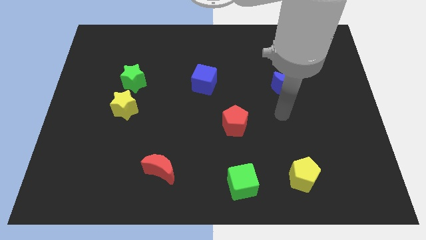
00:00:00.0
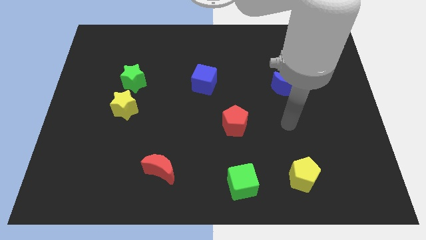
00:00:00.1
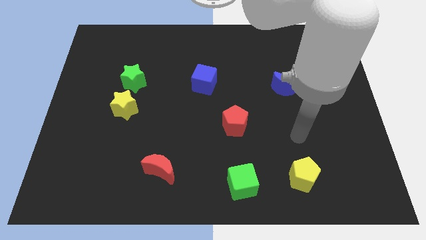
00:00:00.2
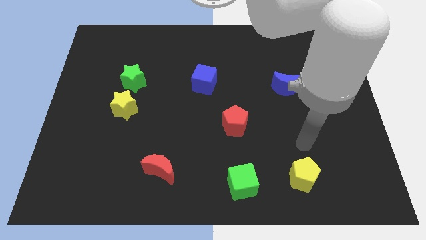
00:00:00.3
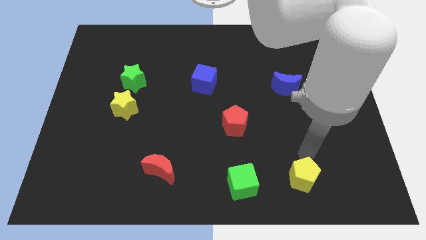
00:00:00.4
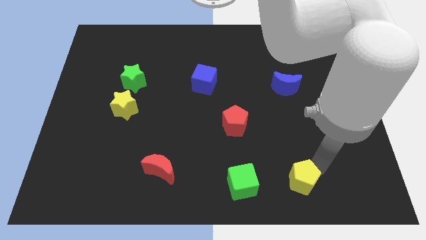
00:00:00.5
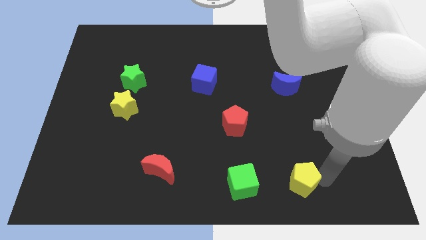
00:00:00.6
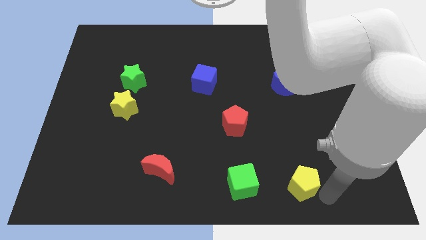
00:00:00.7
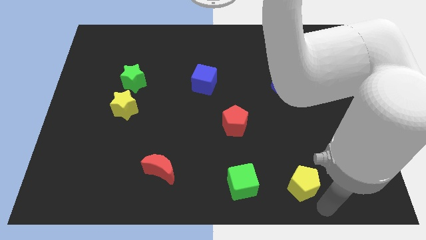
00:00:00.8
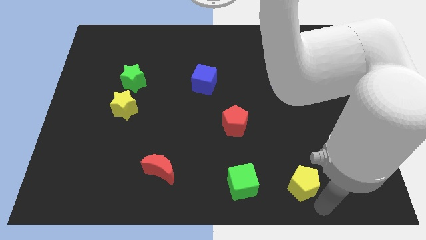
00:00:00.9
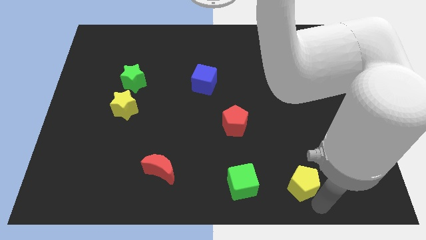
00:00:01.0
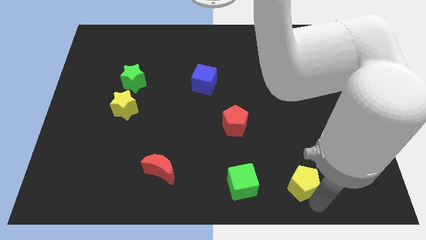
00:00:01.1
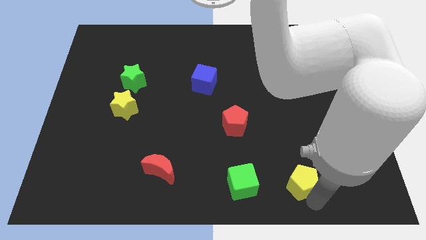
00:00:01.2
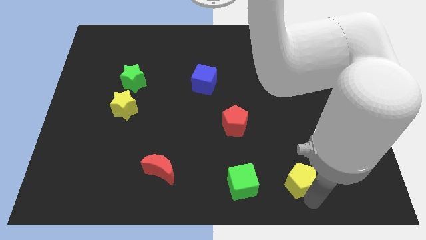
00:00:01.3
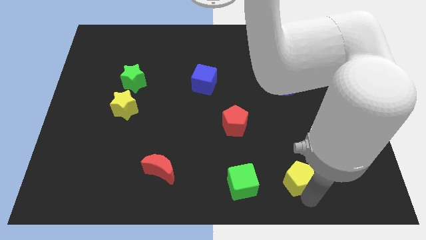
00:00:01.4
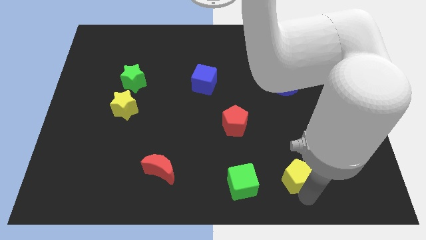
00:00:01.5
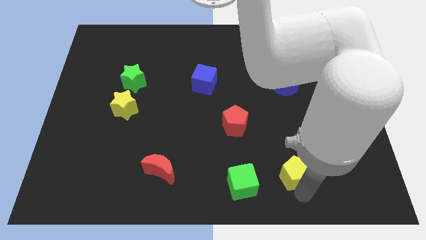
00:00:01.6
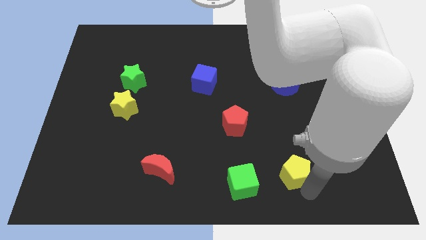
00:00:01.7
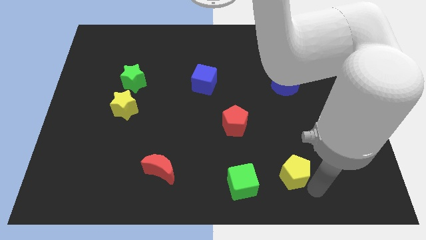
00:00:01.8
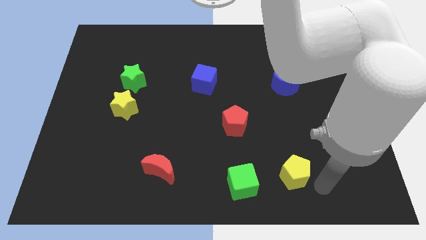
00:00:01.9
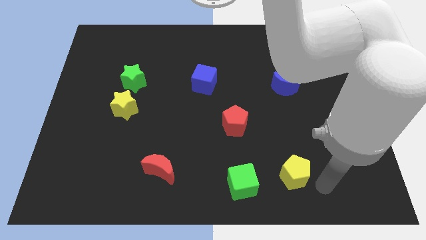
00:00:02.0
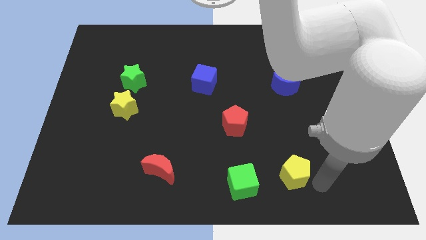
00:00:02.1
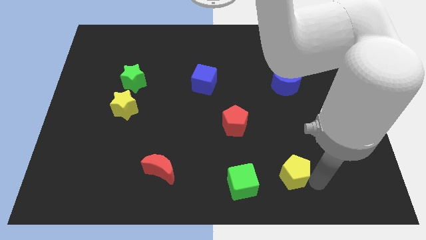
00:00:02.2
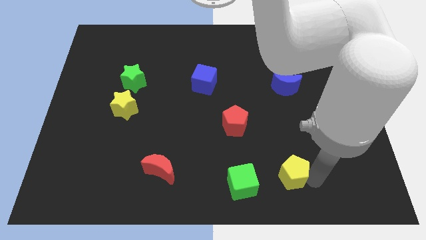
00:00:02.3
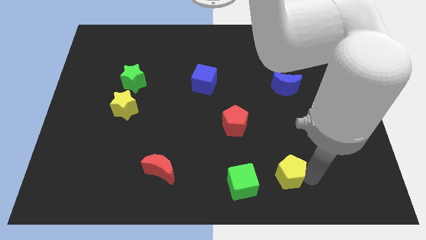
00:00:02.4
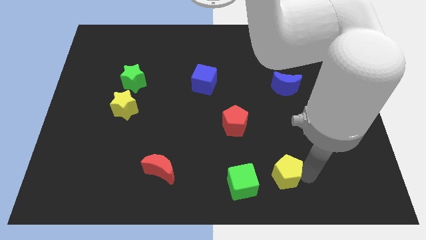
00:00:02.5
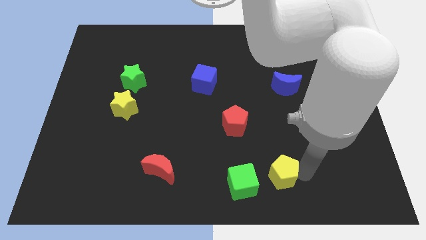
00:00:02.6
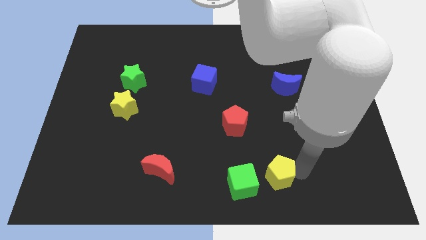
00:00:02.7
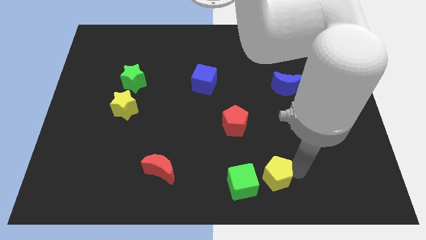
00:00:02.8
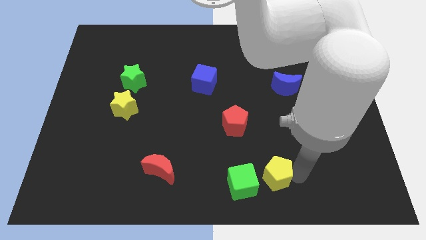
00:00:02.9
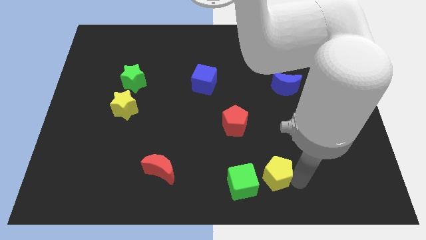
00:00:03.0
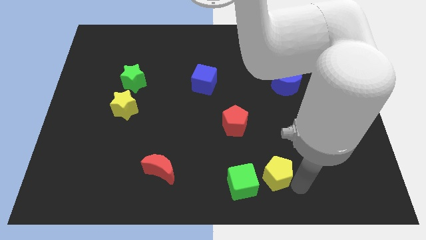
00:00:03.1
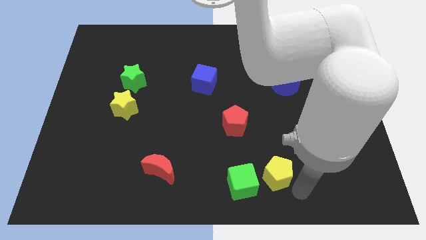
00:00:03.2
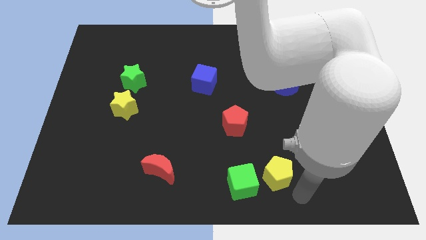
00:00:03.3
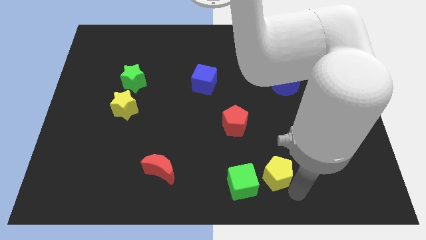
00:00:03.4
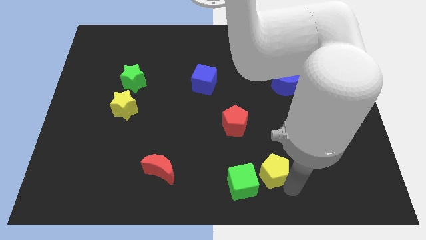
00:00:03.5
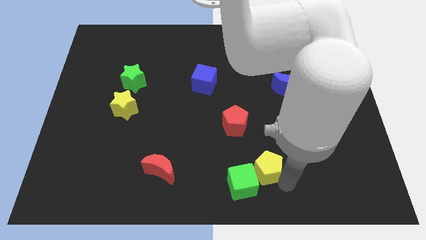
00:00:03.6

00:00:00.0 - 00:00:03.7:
push the yellow pentagon left a little

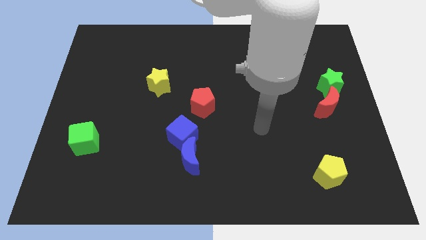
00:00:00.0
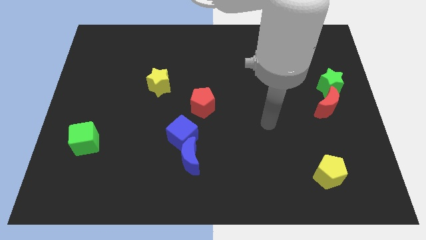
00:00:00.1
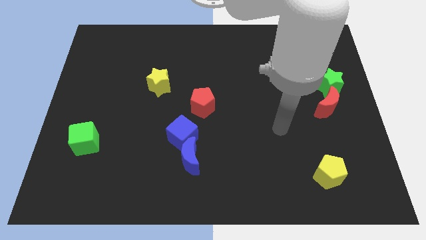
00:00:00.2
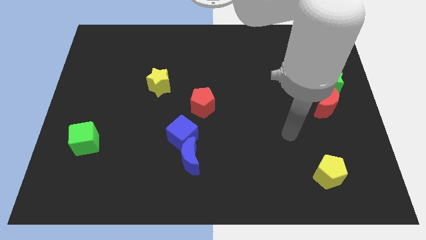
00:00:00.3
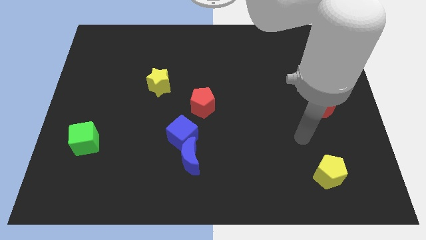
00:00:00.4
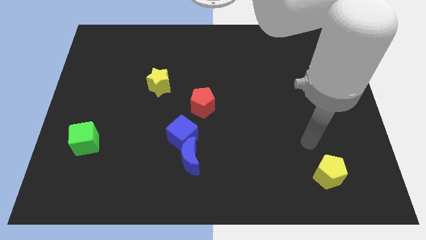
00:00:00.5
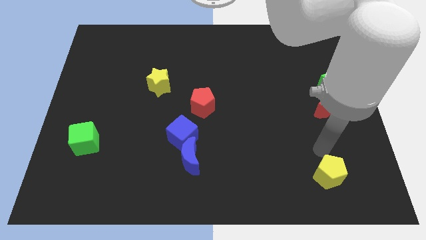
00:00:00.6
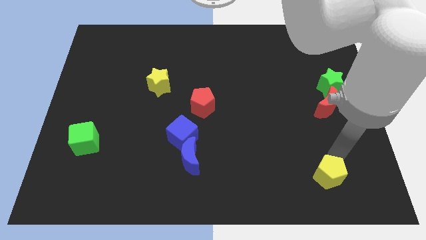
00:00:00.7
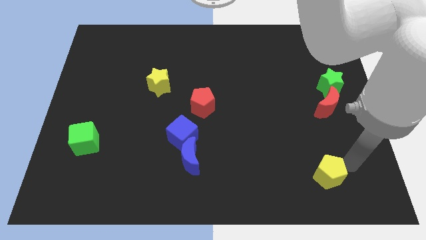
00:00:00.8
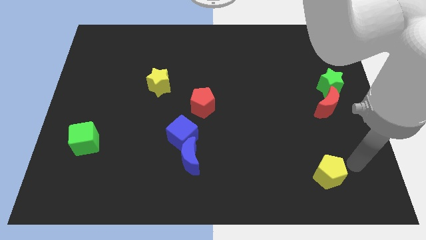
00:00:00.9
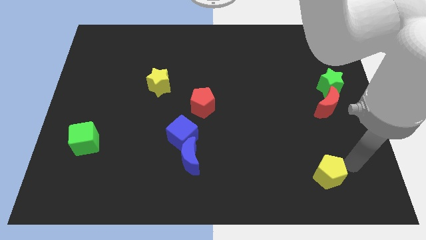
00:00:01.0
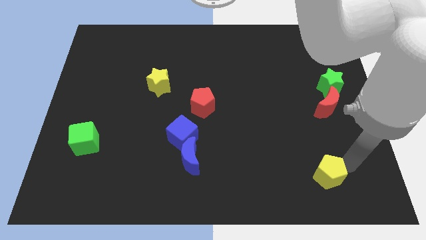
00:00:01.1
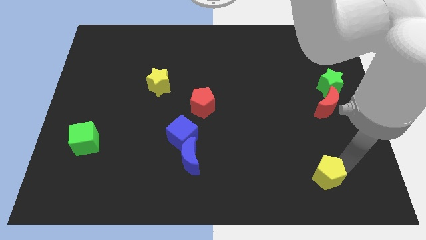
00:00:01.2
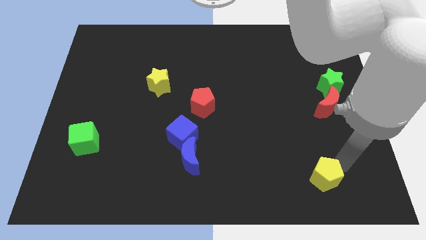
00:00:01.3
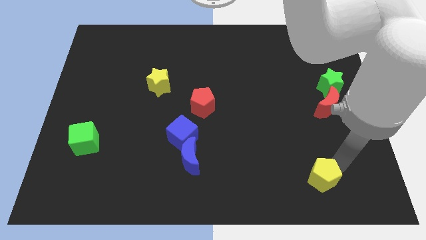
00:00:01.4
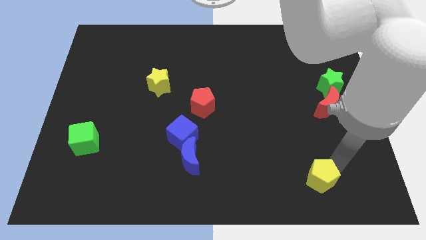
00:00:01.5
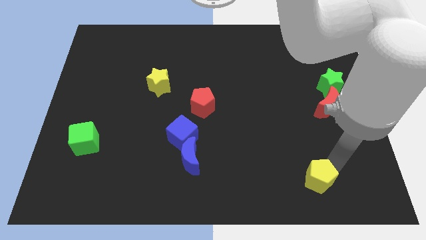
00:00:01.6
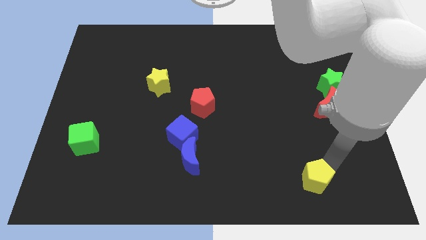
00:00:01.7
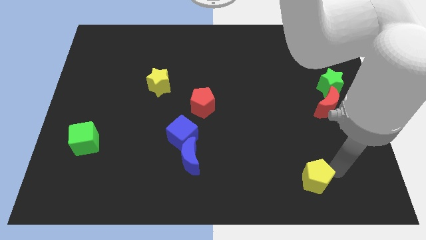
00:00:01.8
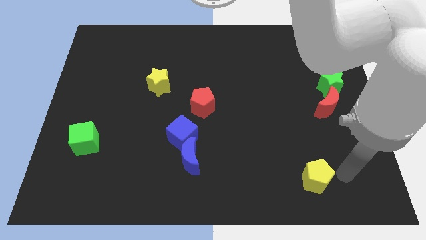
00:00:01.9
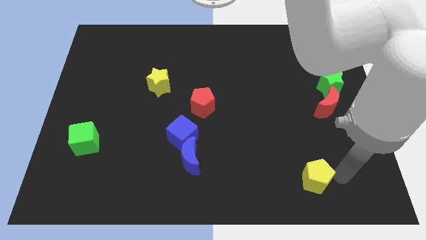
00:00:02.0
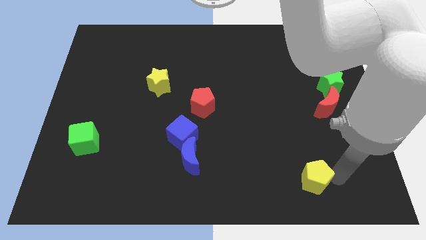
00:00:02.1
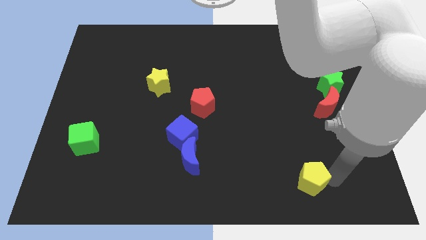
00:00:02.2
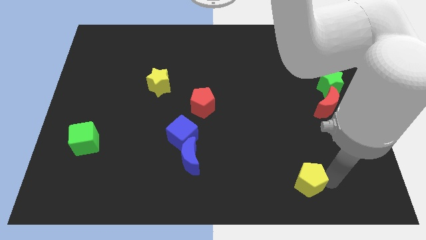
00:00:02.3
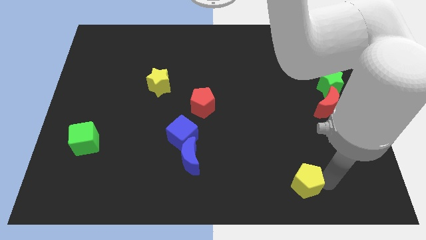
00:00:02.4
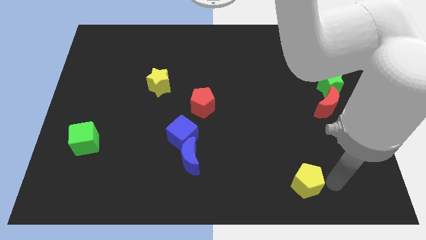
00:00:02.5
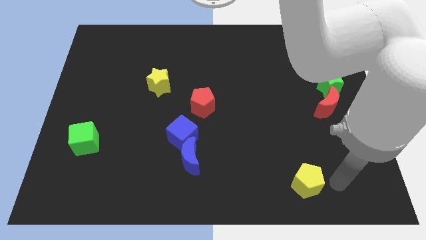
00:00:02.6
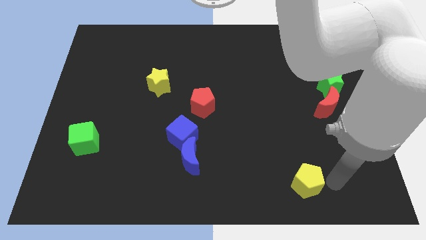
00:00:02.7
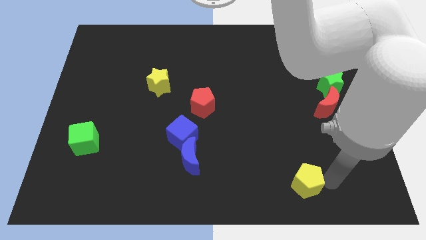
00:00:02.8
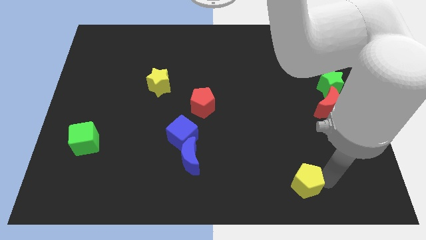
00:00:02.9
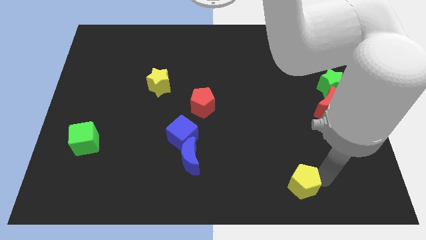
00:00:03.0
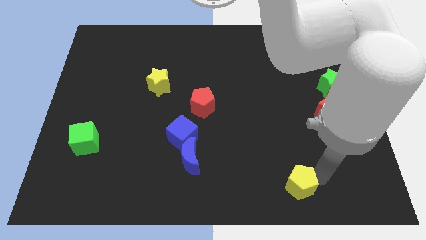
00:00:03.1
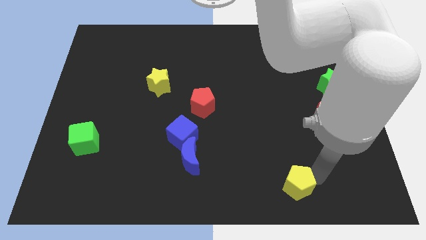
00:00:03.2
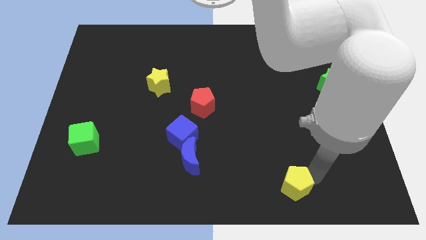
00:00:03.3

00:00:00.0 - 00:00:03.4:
move the yellow pentagon slightly to the left

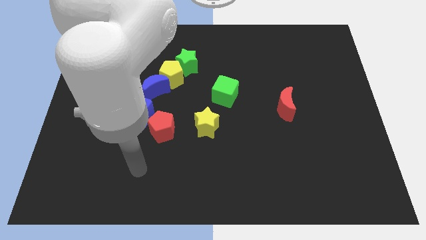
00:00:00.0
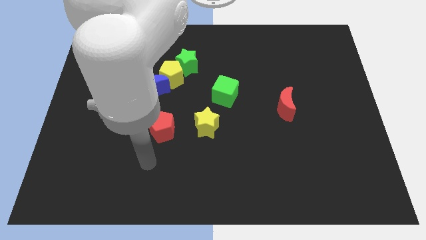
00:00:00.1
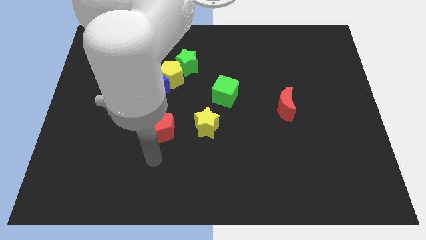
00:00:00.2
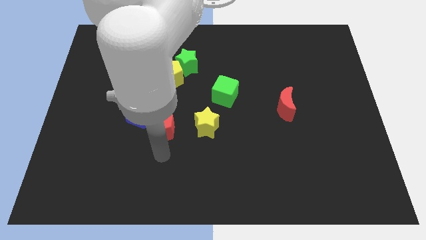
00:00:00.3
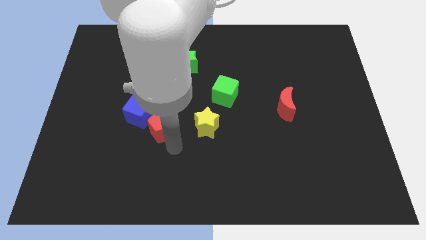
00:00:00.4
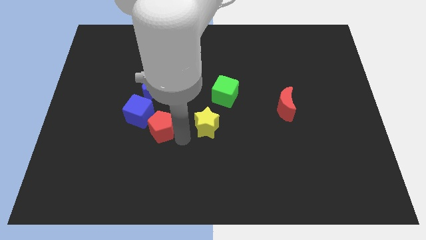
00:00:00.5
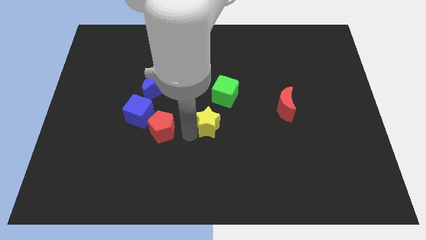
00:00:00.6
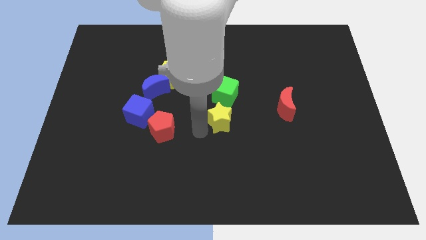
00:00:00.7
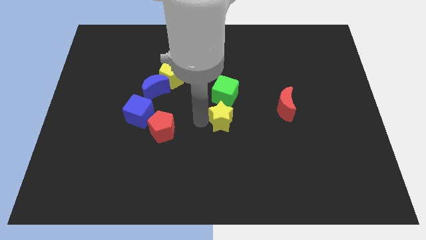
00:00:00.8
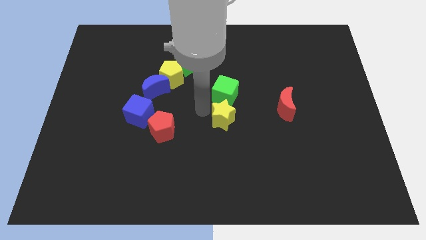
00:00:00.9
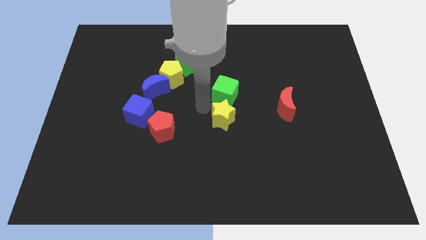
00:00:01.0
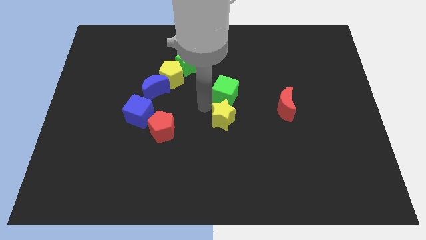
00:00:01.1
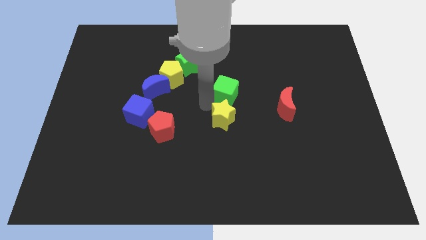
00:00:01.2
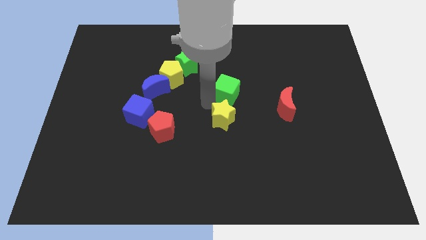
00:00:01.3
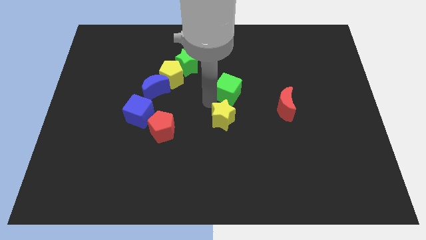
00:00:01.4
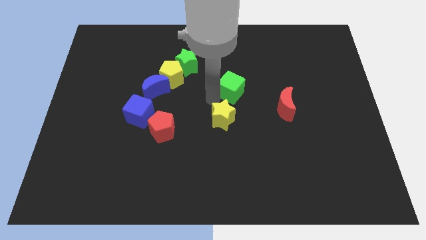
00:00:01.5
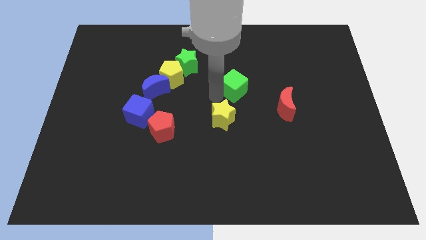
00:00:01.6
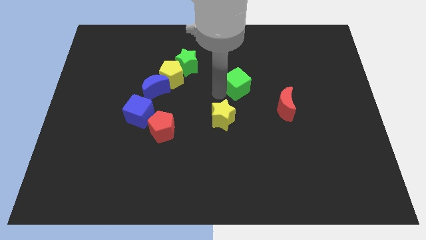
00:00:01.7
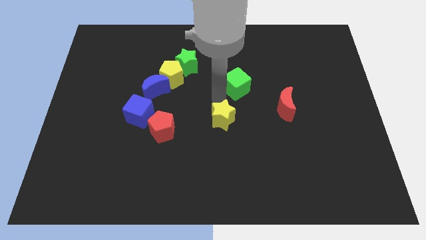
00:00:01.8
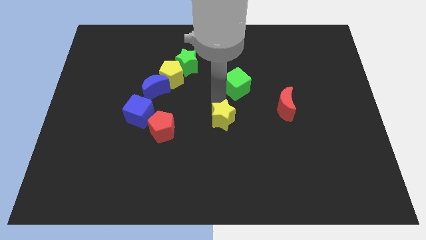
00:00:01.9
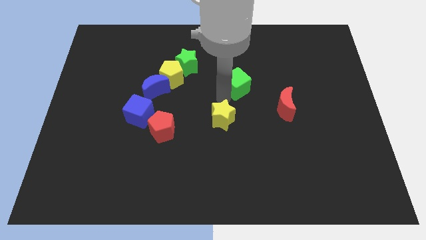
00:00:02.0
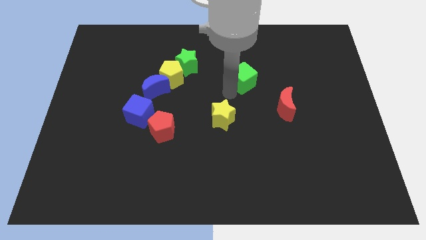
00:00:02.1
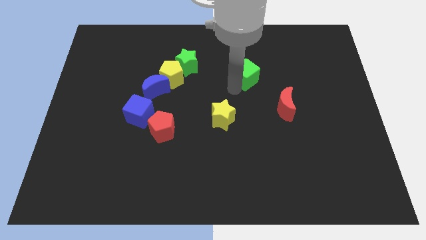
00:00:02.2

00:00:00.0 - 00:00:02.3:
slightly move the green cube diagonally upwards and right
